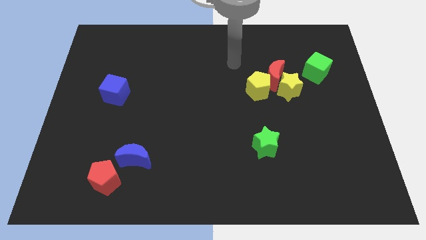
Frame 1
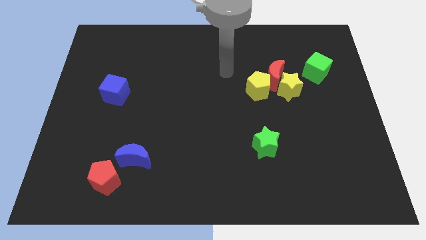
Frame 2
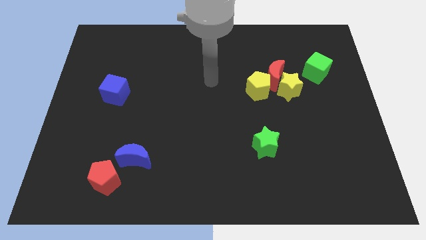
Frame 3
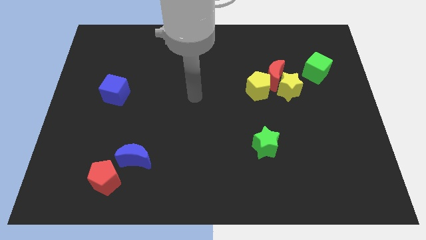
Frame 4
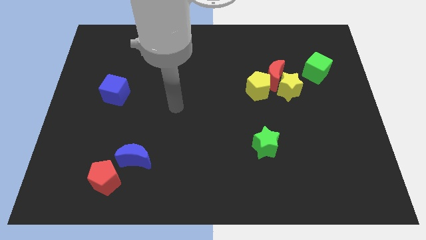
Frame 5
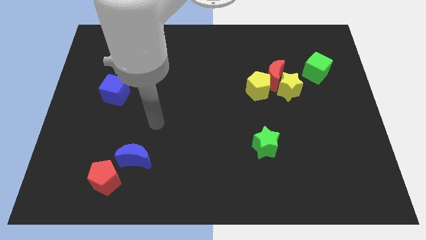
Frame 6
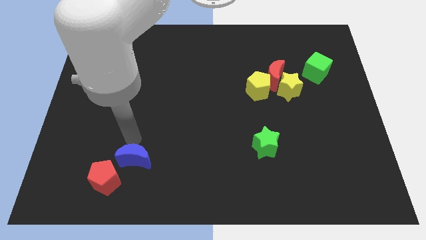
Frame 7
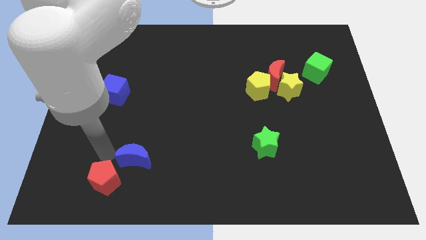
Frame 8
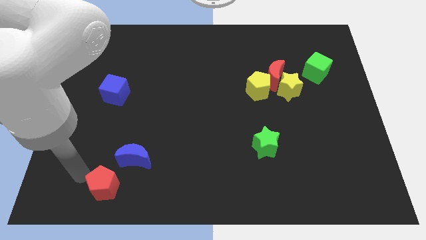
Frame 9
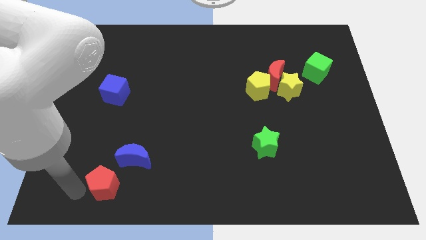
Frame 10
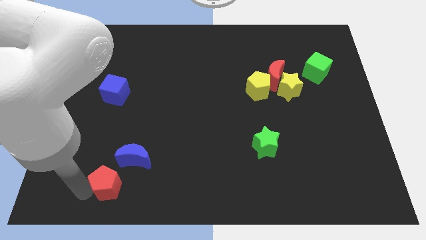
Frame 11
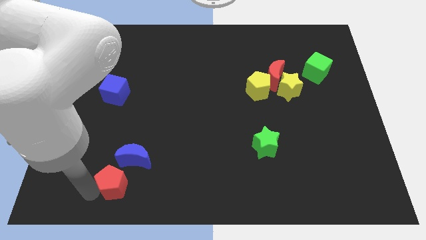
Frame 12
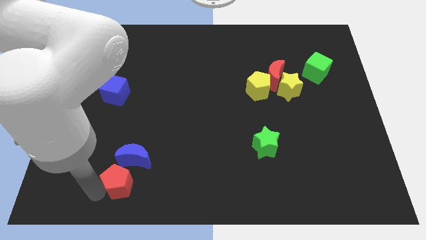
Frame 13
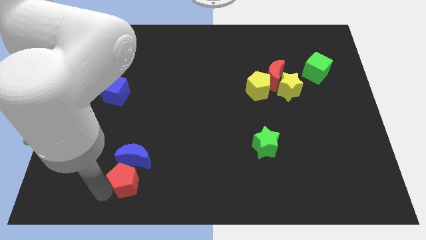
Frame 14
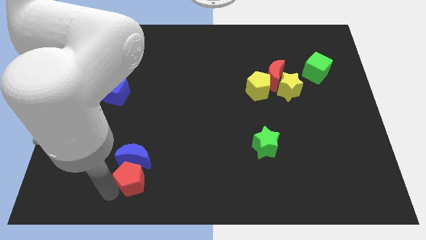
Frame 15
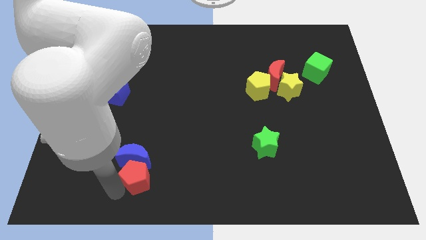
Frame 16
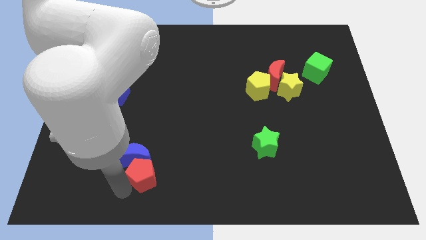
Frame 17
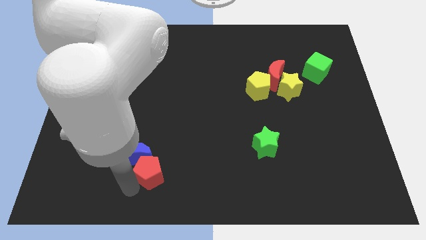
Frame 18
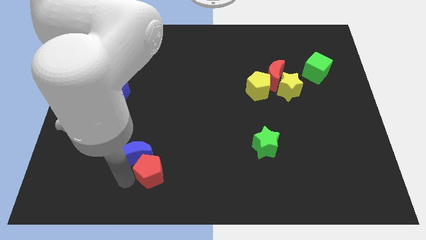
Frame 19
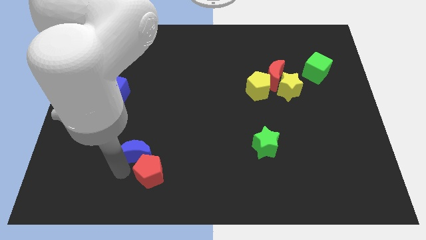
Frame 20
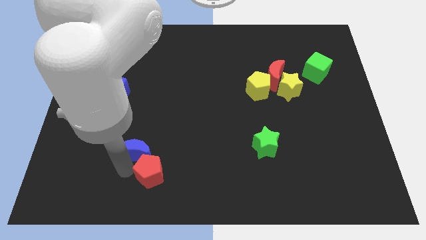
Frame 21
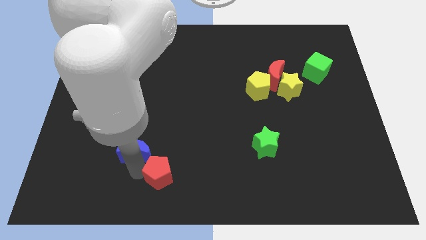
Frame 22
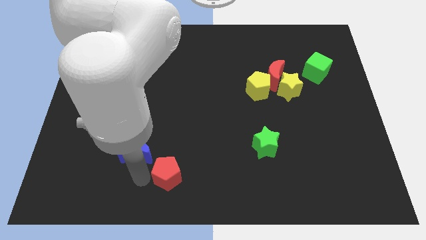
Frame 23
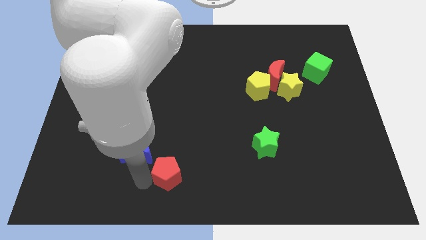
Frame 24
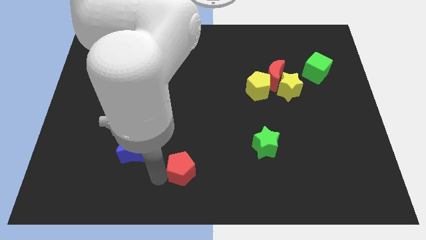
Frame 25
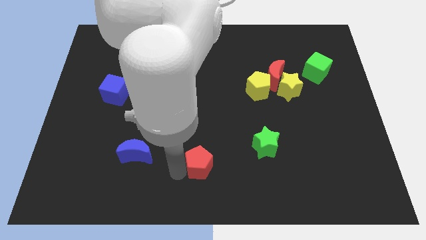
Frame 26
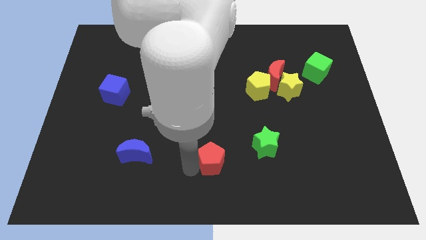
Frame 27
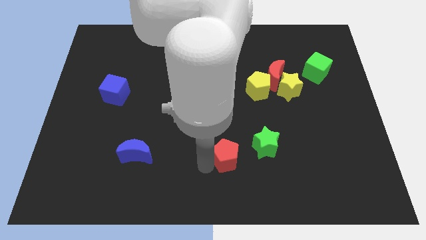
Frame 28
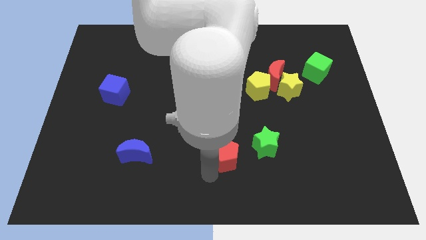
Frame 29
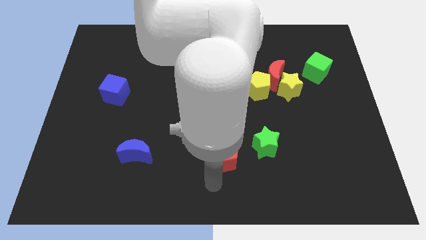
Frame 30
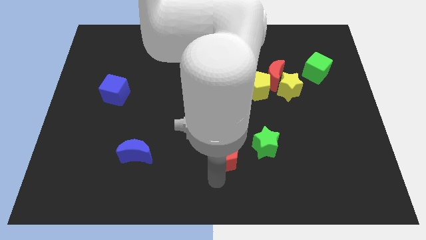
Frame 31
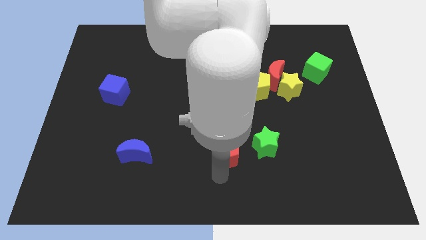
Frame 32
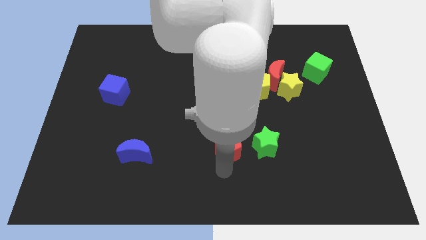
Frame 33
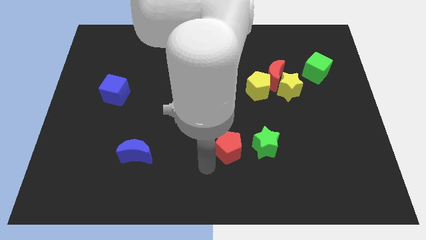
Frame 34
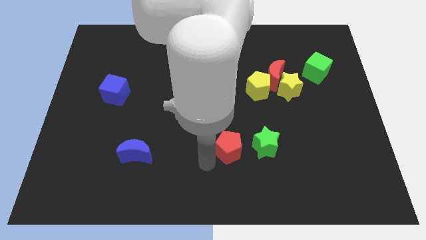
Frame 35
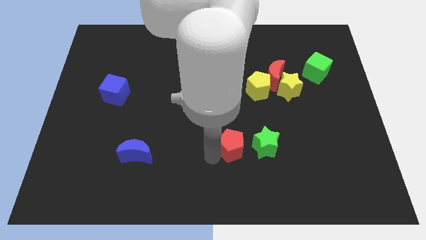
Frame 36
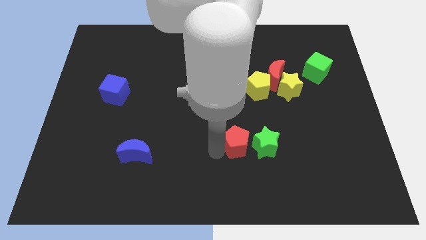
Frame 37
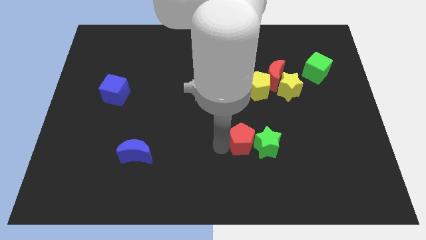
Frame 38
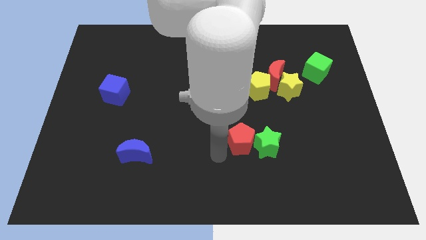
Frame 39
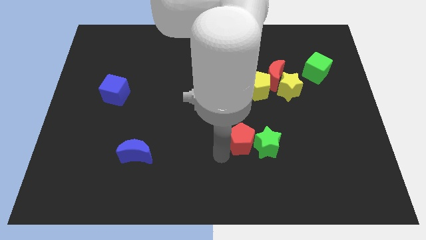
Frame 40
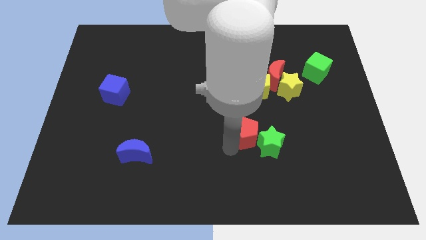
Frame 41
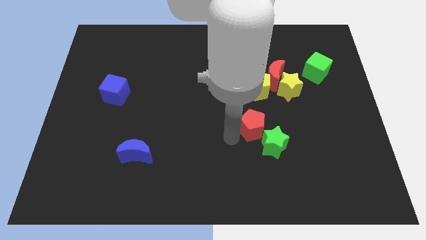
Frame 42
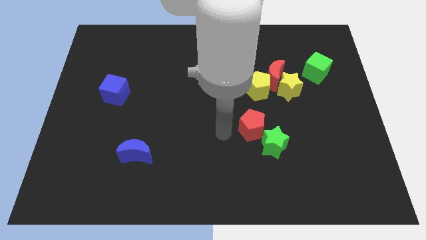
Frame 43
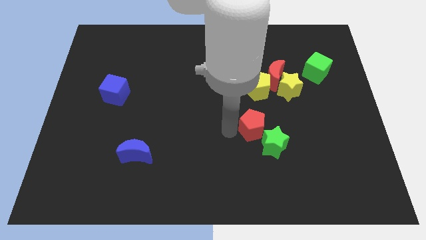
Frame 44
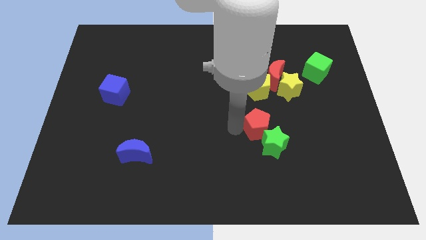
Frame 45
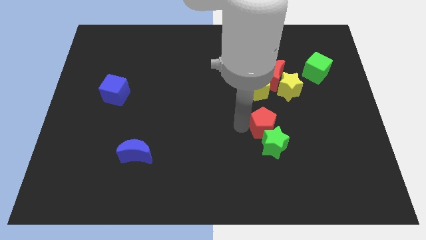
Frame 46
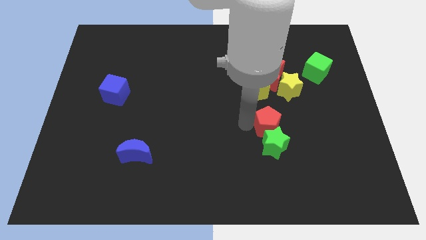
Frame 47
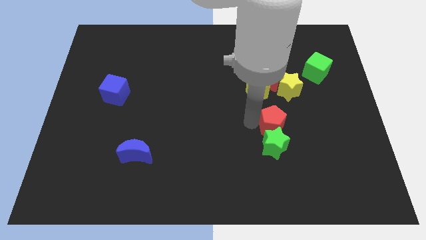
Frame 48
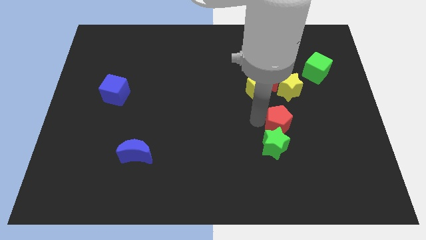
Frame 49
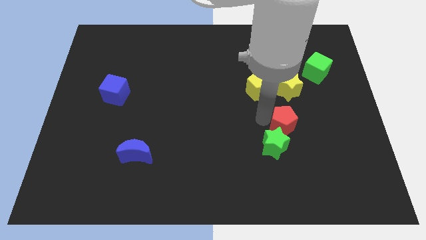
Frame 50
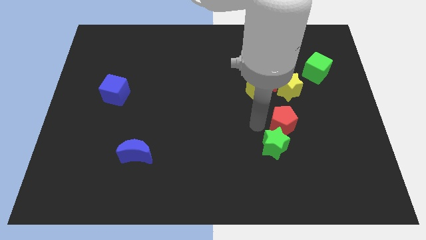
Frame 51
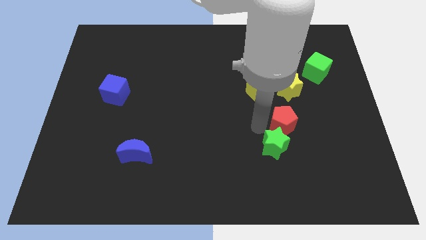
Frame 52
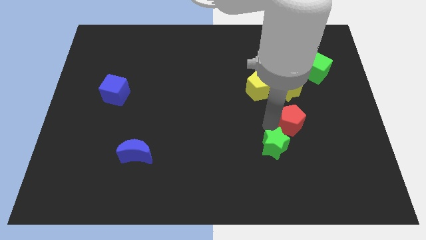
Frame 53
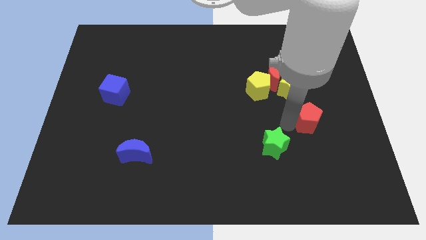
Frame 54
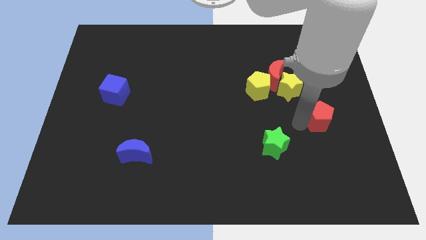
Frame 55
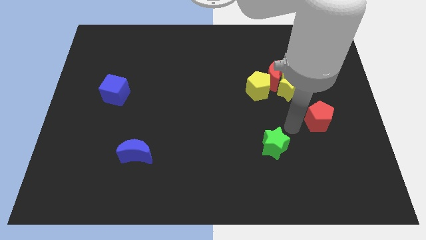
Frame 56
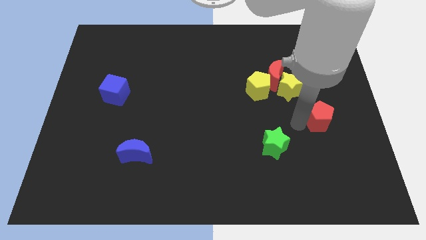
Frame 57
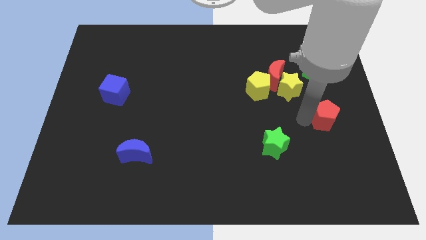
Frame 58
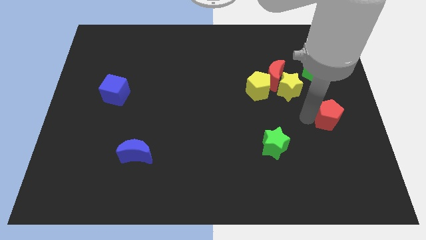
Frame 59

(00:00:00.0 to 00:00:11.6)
put the red pentagon to the center right

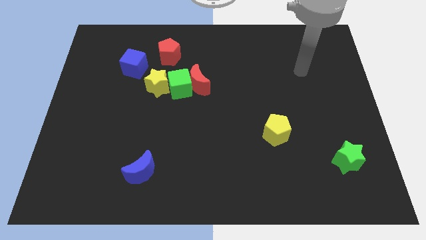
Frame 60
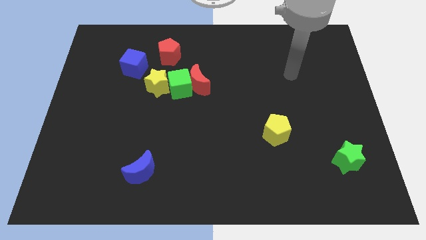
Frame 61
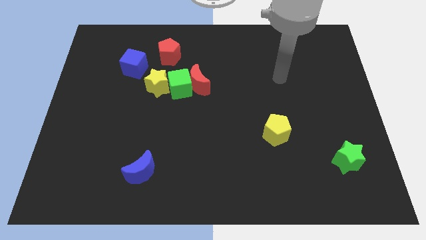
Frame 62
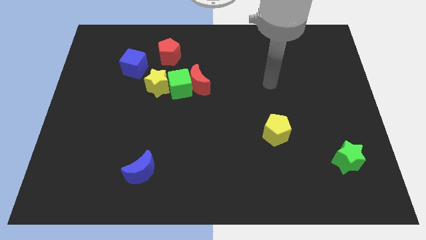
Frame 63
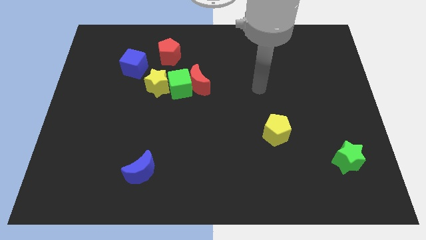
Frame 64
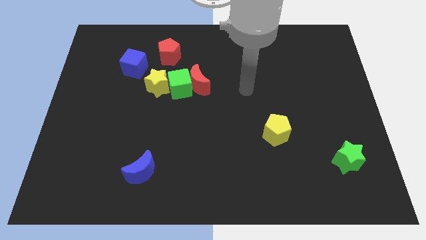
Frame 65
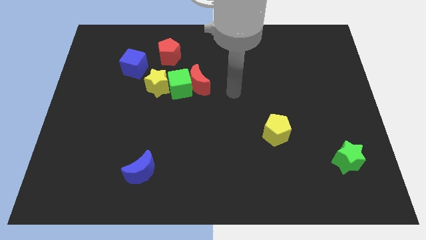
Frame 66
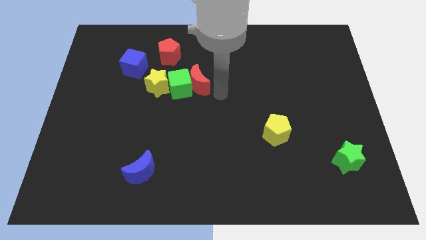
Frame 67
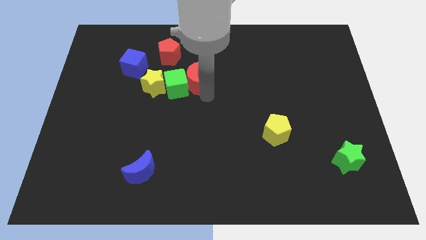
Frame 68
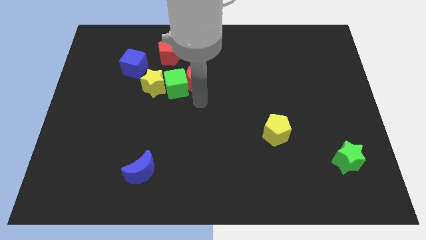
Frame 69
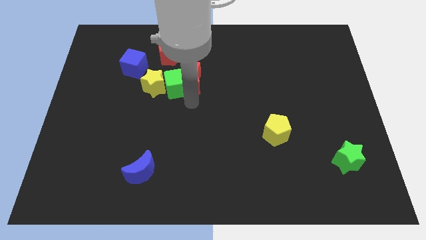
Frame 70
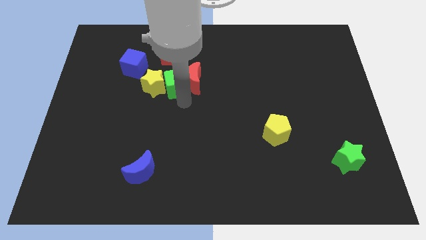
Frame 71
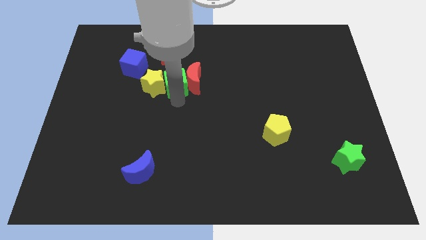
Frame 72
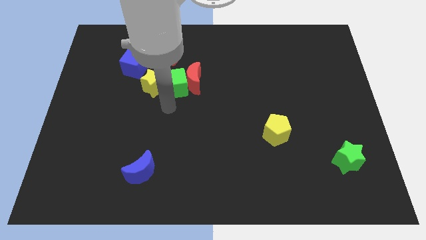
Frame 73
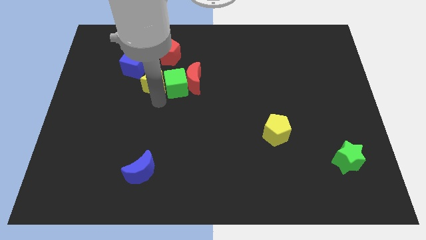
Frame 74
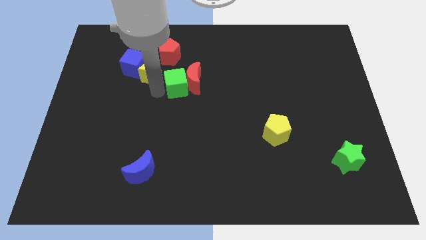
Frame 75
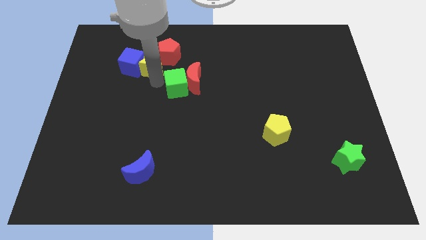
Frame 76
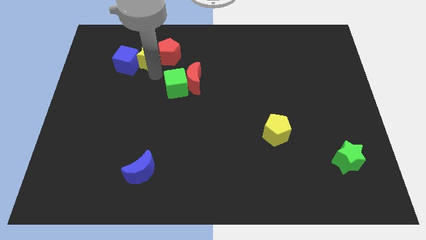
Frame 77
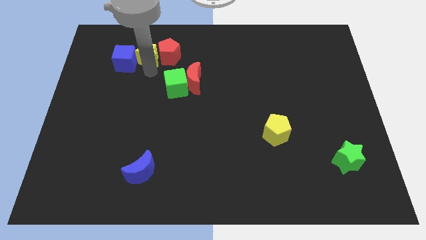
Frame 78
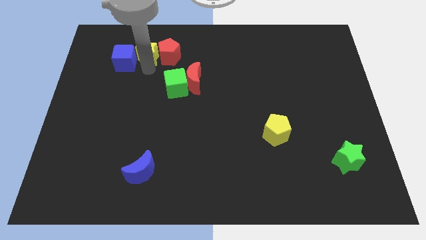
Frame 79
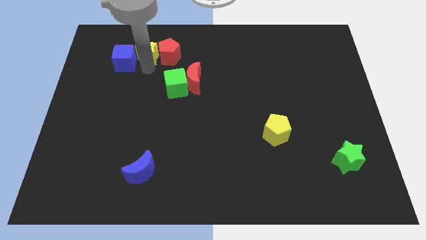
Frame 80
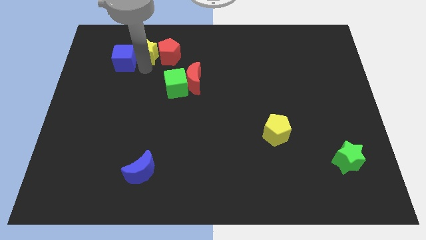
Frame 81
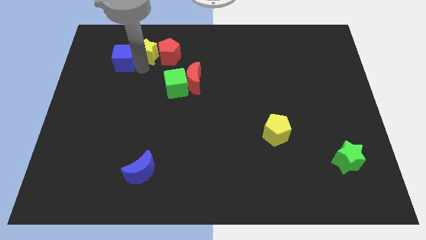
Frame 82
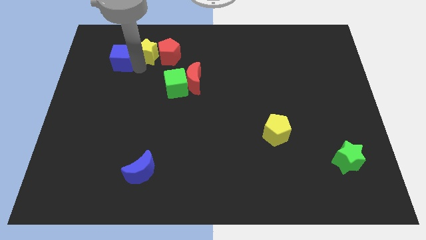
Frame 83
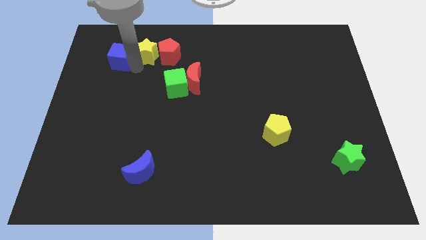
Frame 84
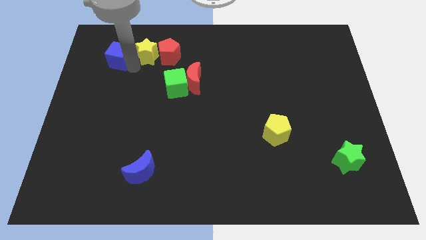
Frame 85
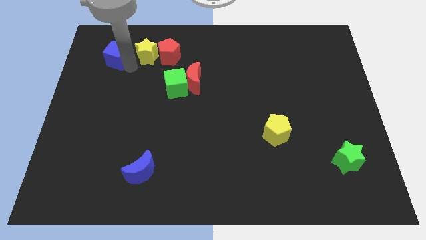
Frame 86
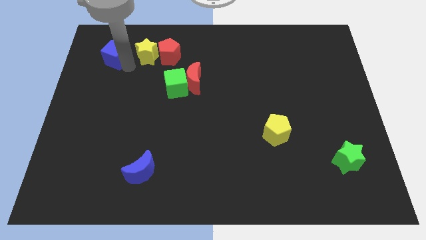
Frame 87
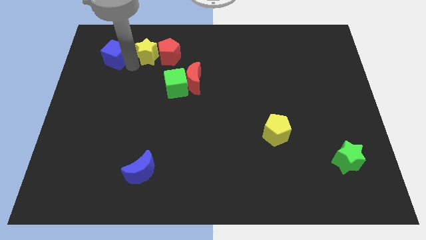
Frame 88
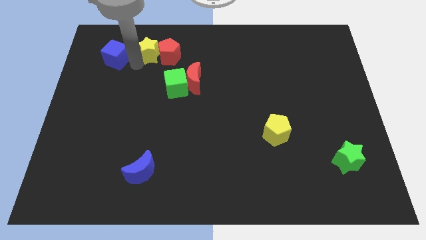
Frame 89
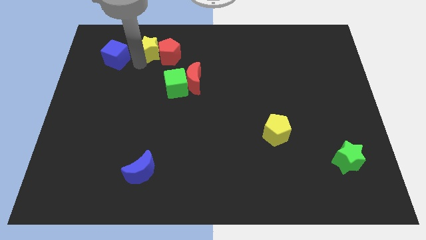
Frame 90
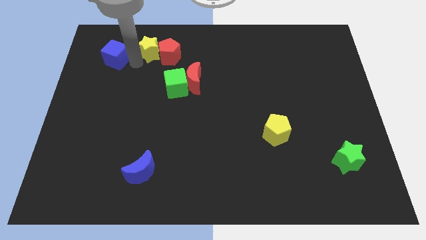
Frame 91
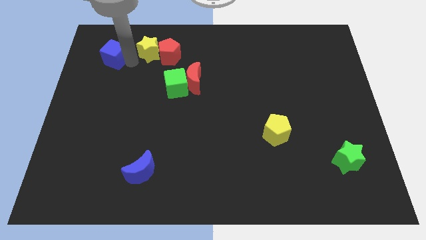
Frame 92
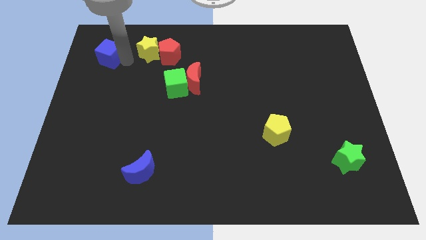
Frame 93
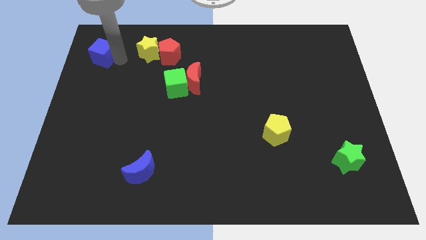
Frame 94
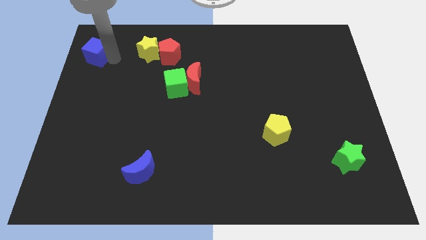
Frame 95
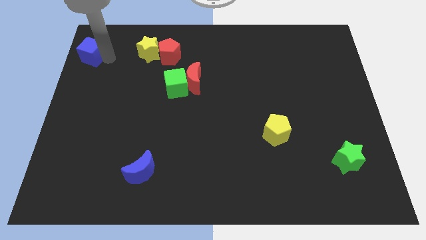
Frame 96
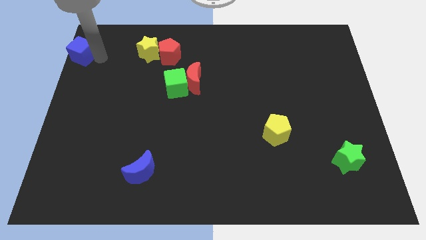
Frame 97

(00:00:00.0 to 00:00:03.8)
slide the blue cube to the top left corner
